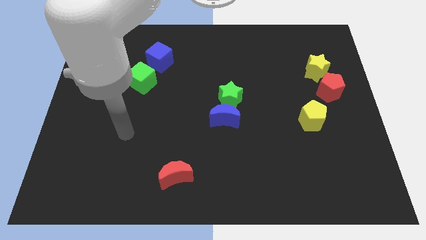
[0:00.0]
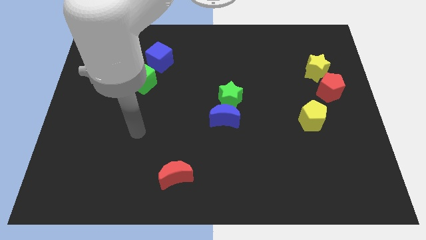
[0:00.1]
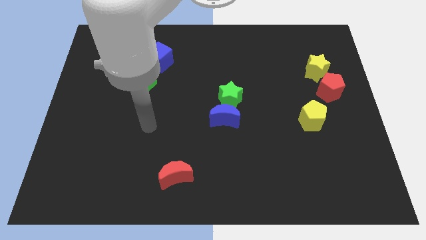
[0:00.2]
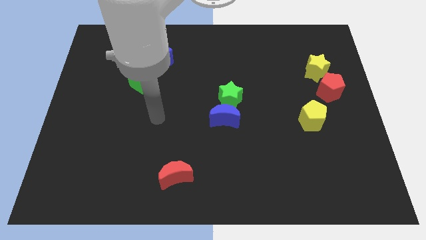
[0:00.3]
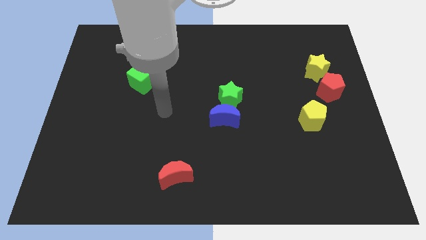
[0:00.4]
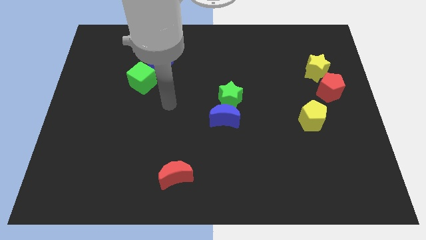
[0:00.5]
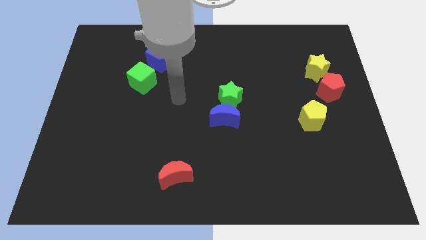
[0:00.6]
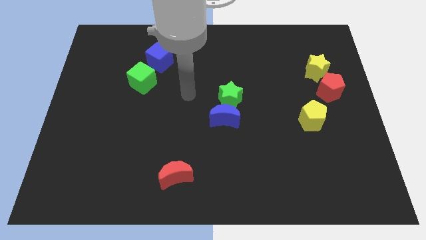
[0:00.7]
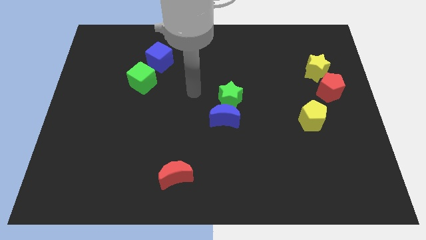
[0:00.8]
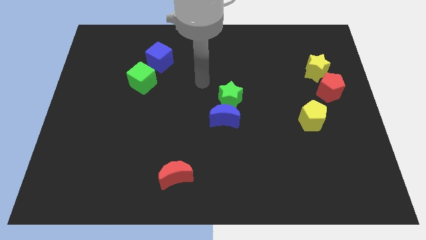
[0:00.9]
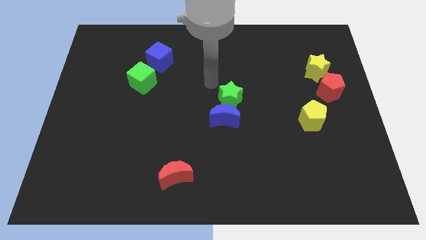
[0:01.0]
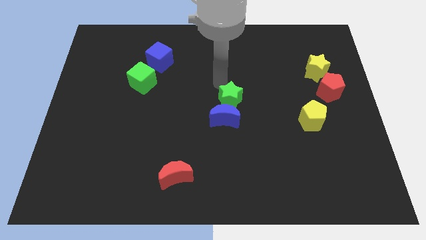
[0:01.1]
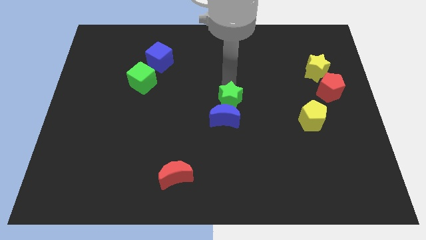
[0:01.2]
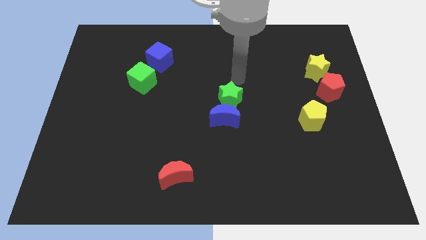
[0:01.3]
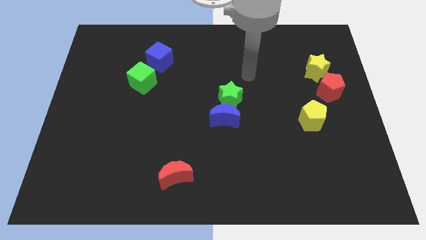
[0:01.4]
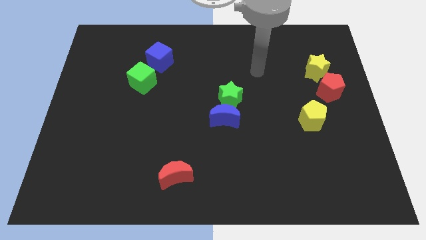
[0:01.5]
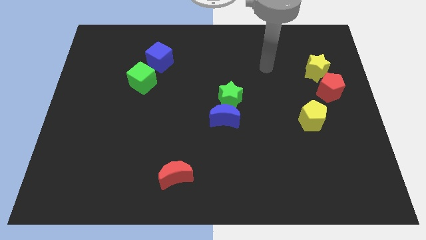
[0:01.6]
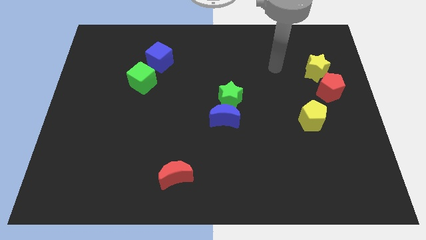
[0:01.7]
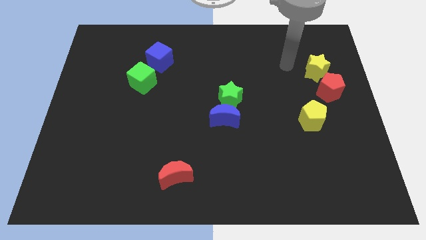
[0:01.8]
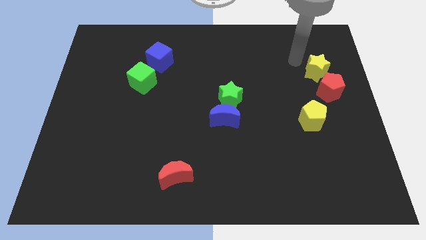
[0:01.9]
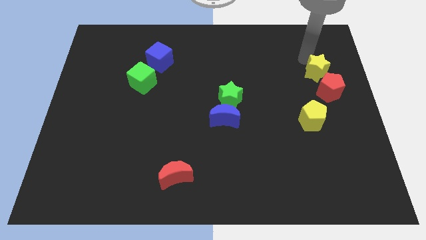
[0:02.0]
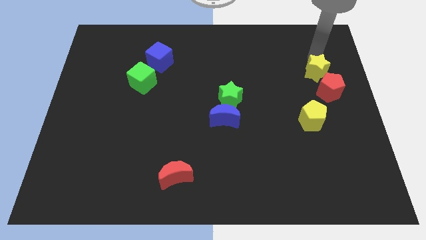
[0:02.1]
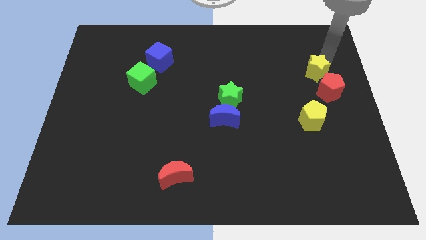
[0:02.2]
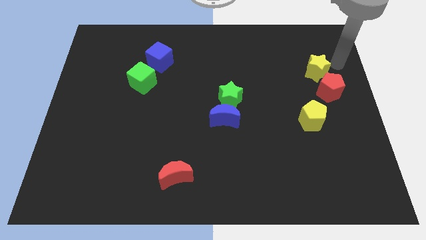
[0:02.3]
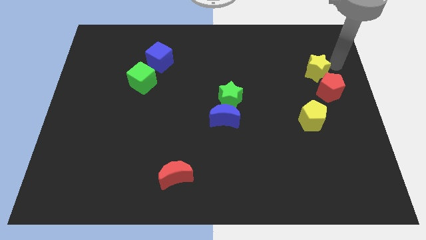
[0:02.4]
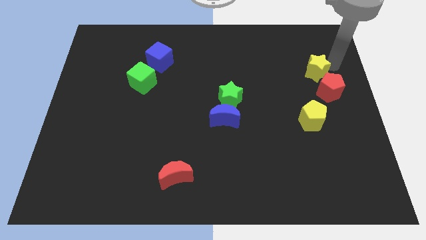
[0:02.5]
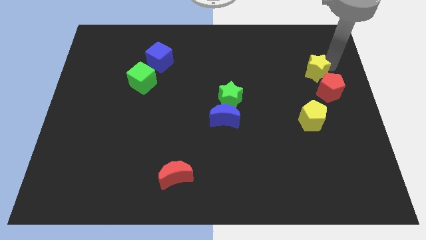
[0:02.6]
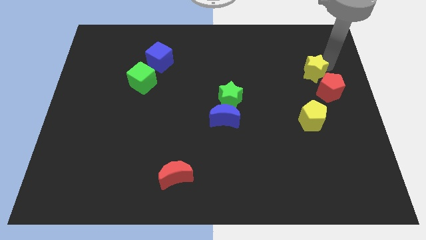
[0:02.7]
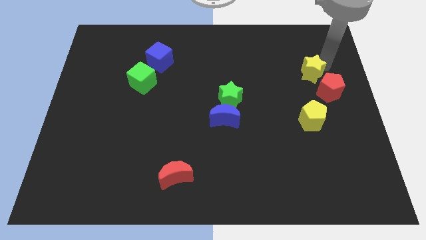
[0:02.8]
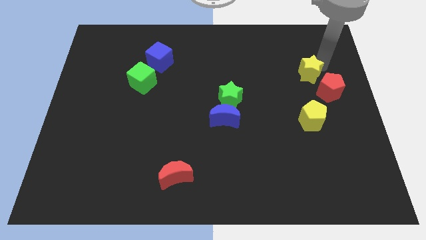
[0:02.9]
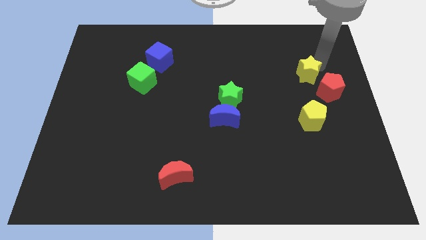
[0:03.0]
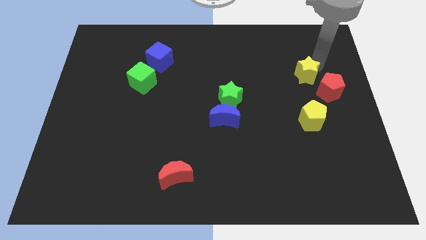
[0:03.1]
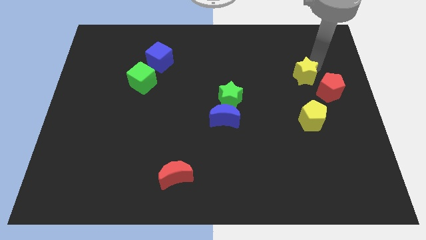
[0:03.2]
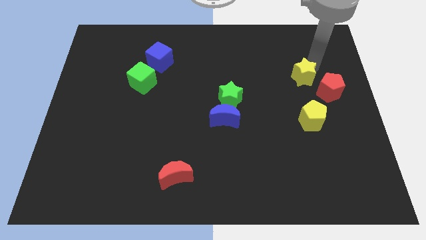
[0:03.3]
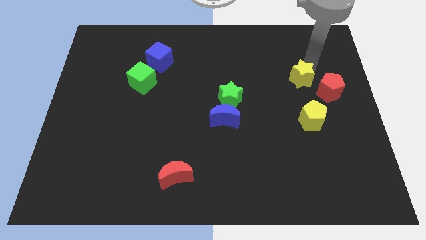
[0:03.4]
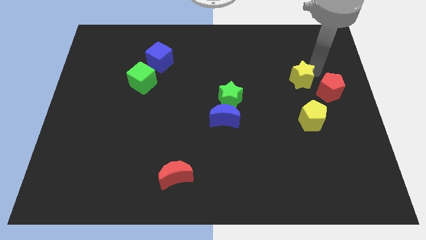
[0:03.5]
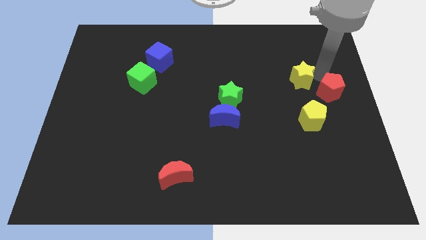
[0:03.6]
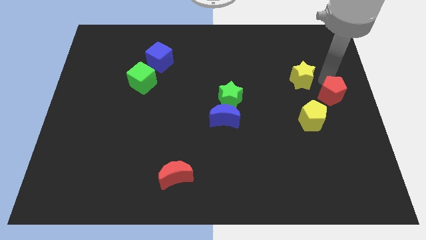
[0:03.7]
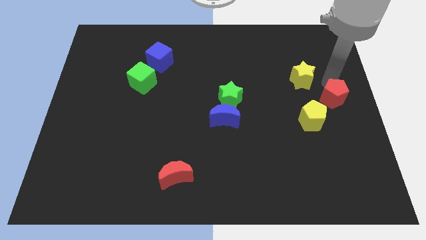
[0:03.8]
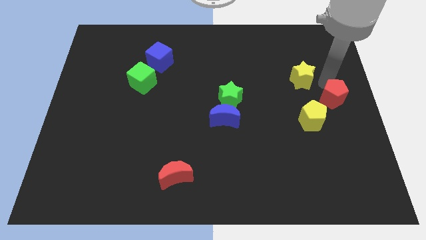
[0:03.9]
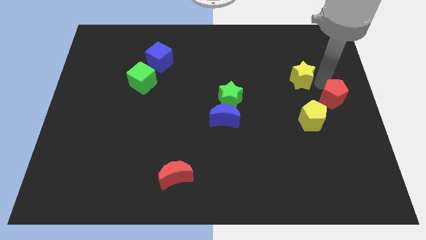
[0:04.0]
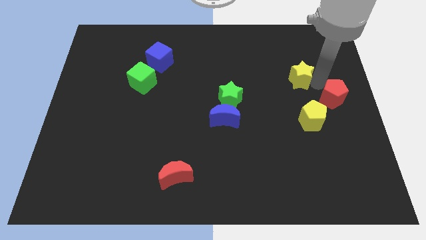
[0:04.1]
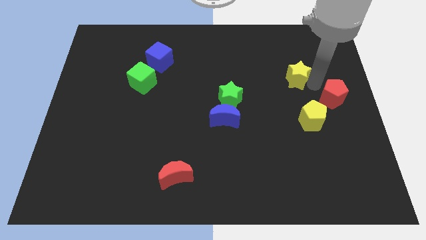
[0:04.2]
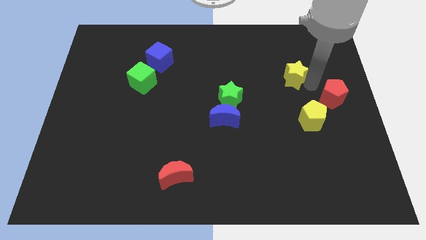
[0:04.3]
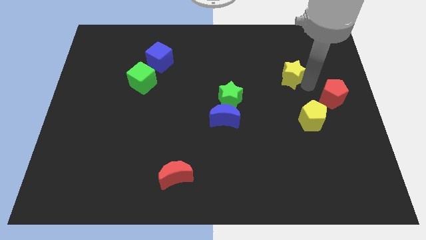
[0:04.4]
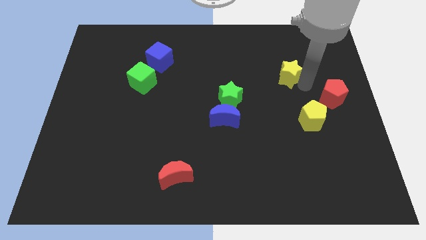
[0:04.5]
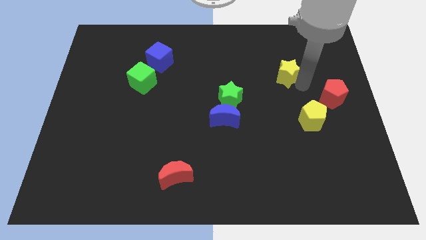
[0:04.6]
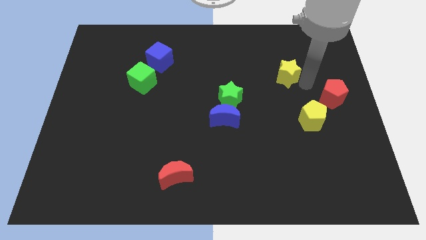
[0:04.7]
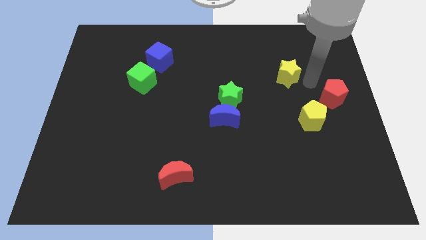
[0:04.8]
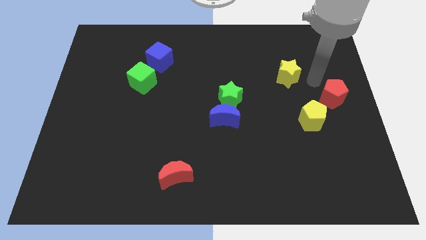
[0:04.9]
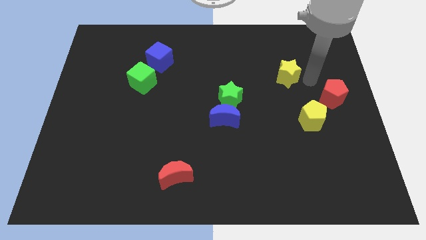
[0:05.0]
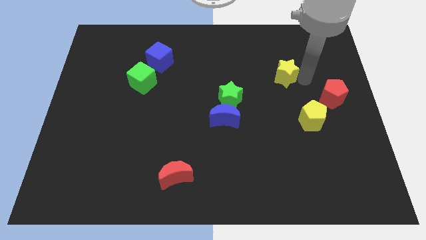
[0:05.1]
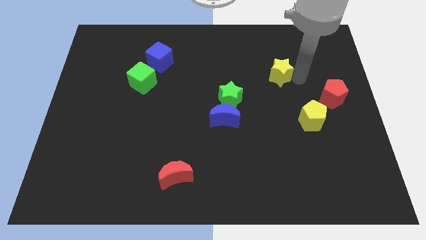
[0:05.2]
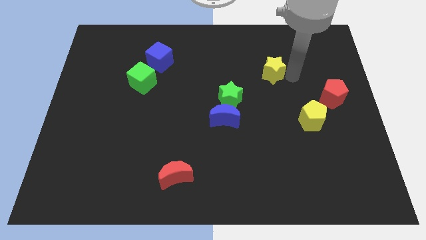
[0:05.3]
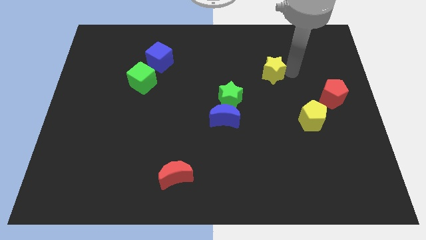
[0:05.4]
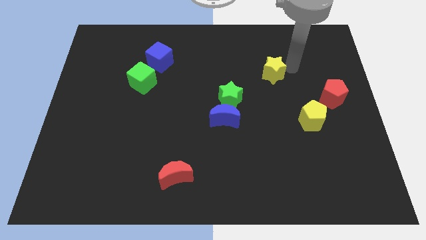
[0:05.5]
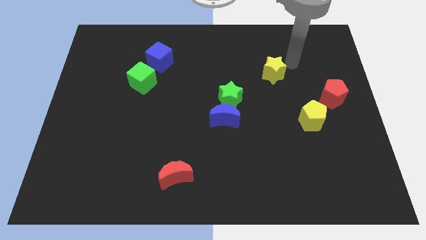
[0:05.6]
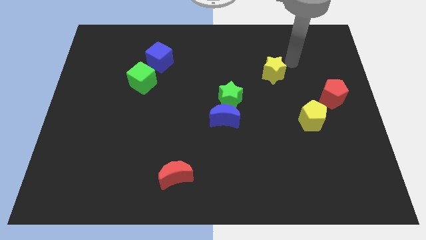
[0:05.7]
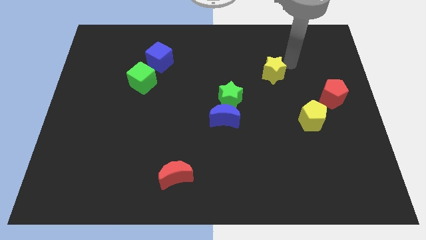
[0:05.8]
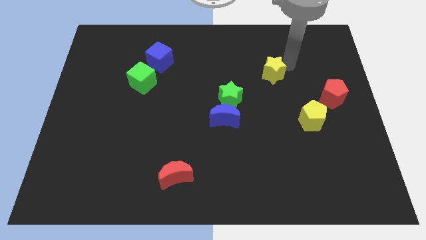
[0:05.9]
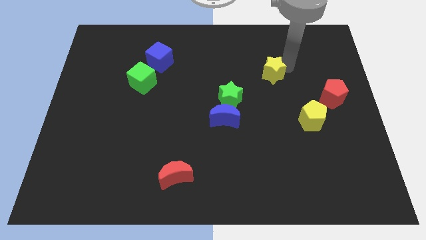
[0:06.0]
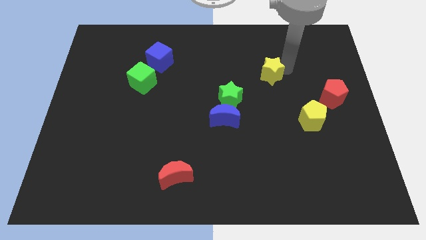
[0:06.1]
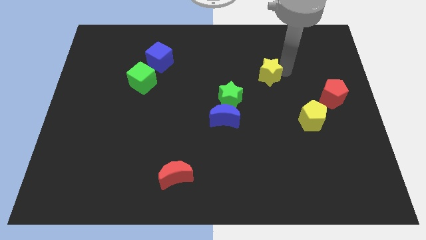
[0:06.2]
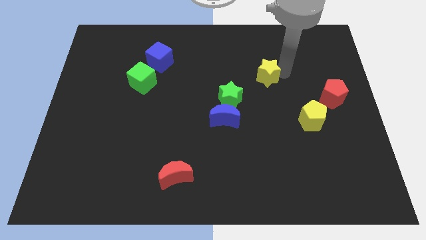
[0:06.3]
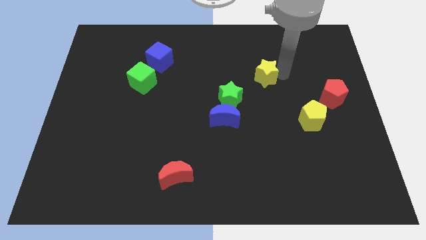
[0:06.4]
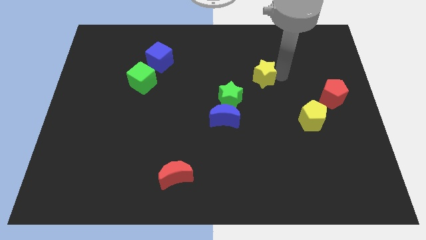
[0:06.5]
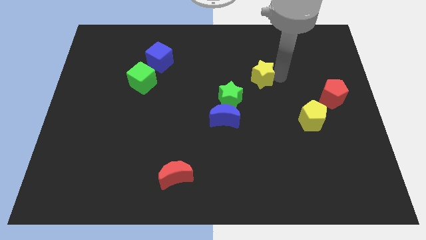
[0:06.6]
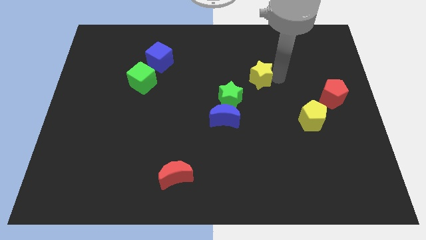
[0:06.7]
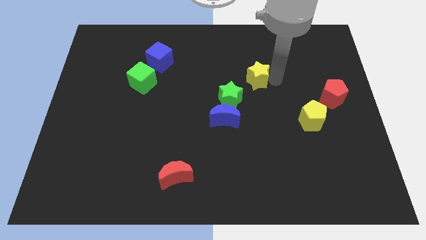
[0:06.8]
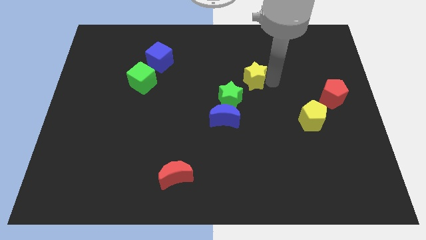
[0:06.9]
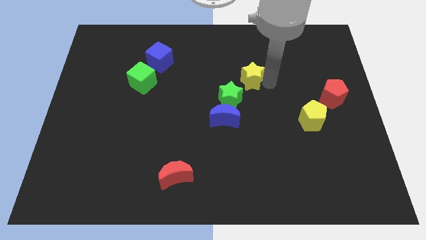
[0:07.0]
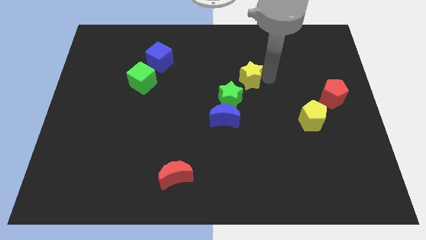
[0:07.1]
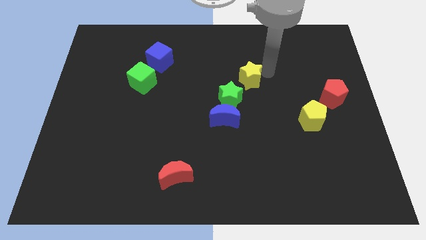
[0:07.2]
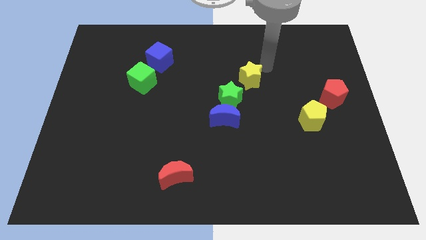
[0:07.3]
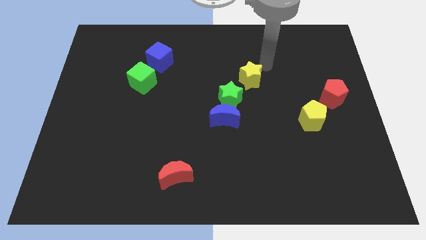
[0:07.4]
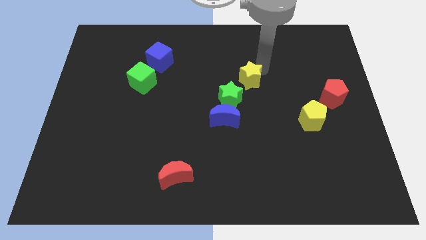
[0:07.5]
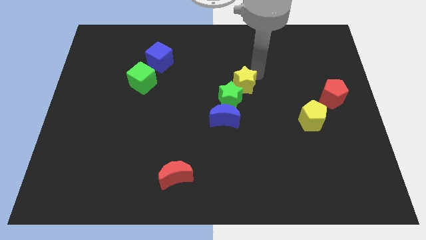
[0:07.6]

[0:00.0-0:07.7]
move the yellow star to the green star
